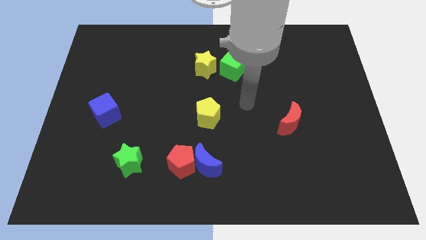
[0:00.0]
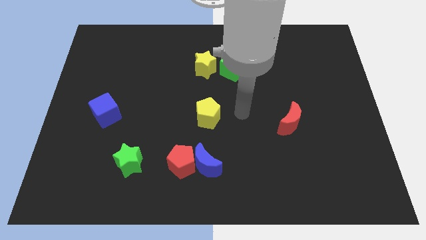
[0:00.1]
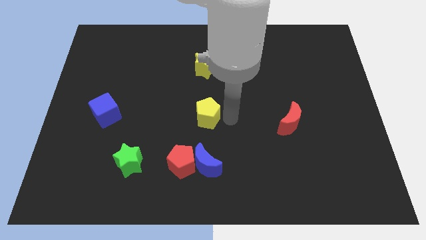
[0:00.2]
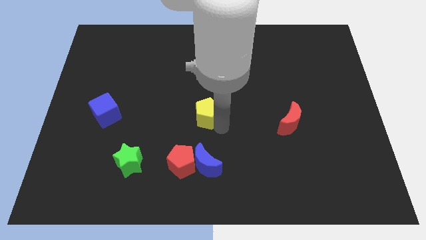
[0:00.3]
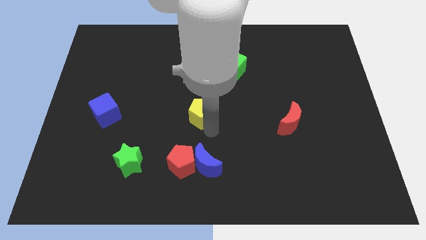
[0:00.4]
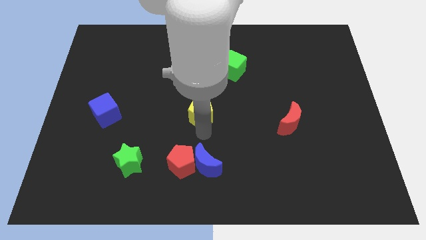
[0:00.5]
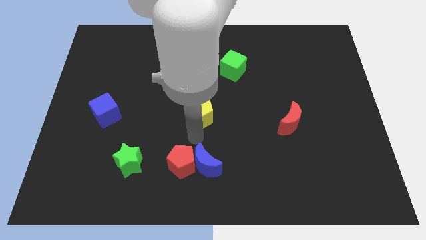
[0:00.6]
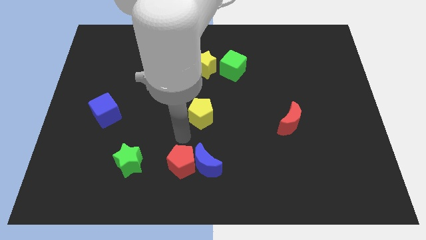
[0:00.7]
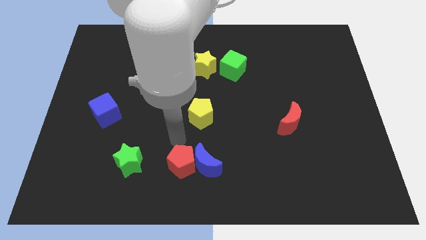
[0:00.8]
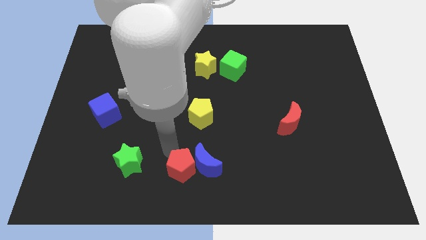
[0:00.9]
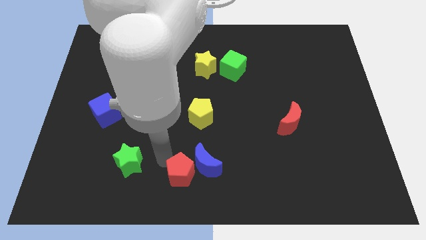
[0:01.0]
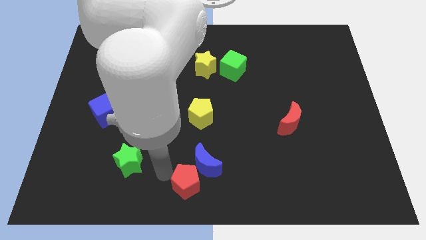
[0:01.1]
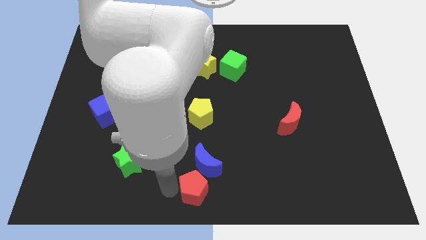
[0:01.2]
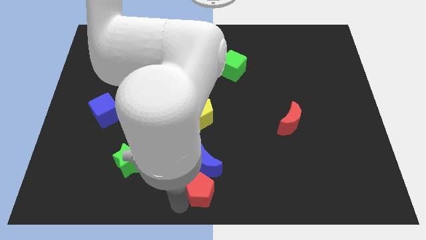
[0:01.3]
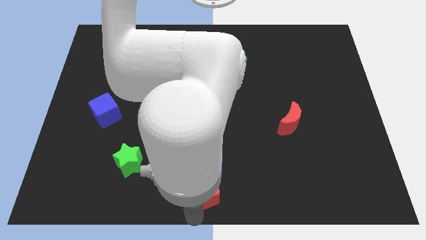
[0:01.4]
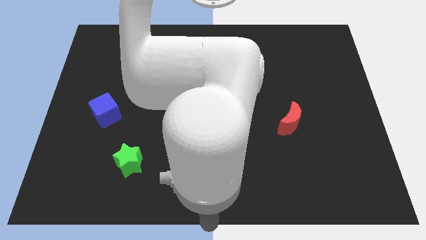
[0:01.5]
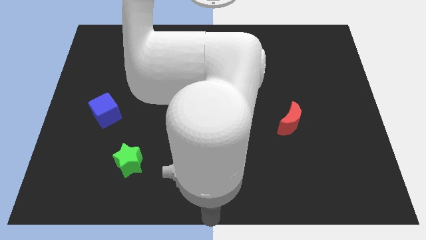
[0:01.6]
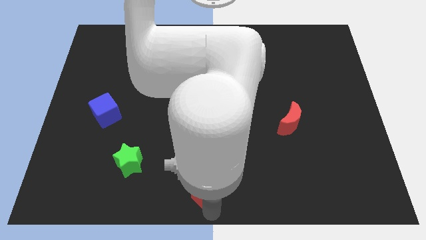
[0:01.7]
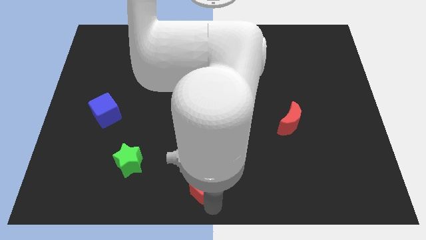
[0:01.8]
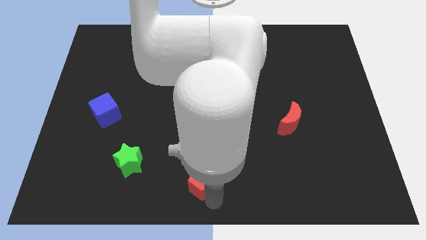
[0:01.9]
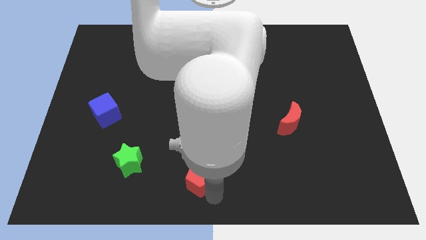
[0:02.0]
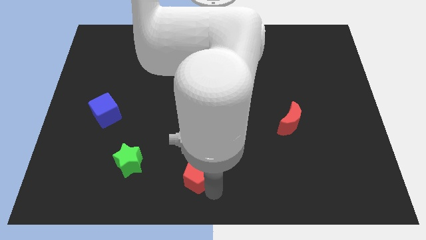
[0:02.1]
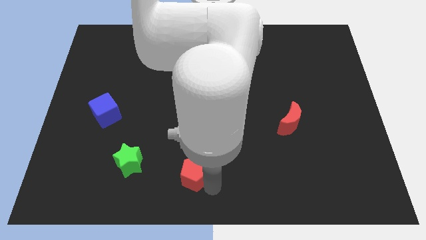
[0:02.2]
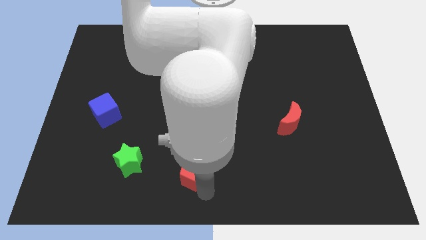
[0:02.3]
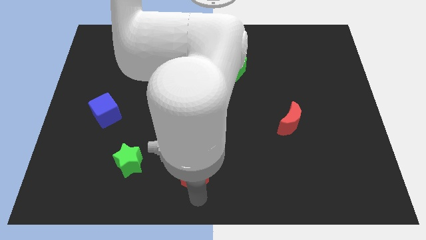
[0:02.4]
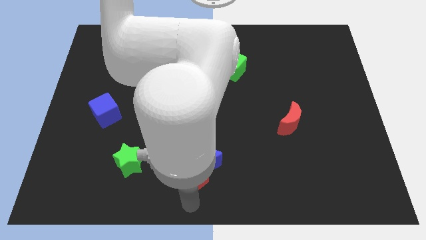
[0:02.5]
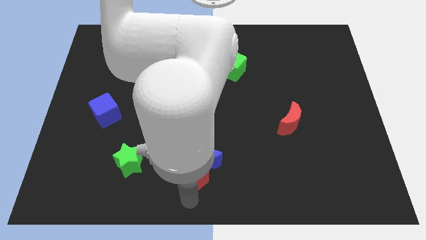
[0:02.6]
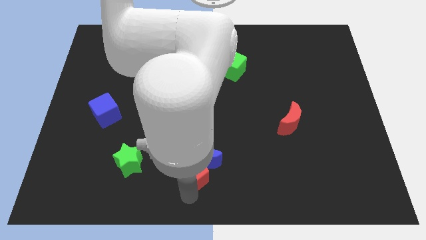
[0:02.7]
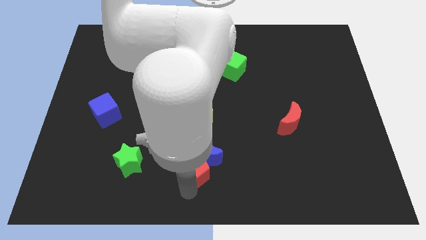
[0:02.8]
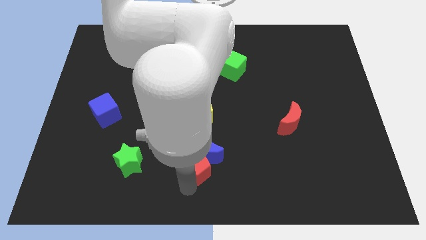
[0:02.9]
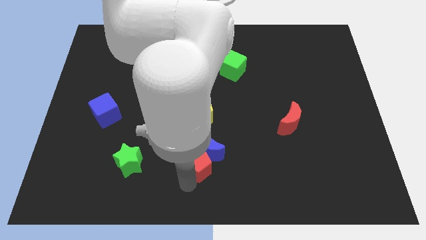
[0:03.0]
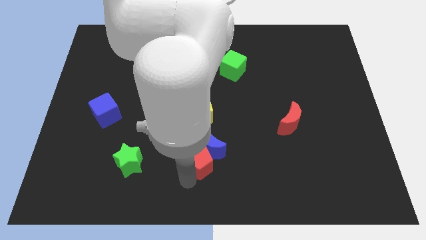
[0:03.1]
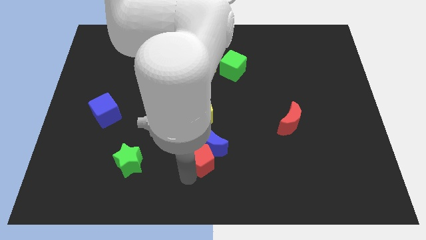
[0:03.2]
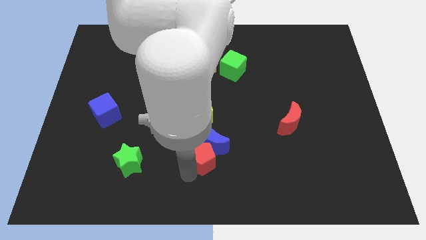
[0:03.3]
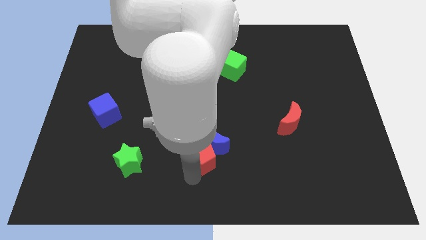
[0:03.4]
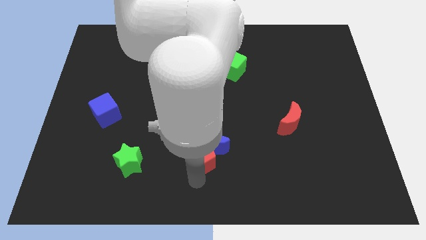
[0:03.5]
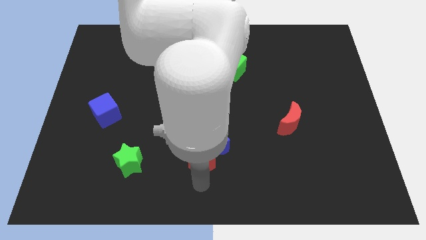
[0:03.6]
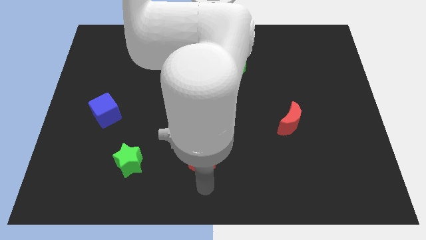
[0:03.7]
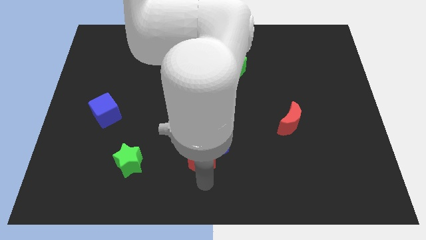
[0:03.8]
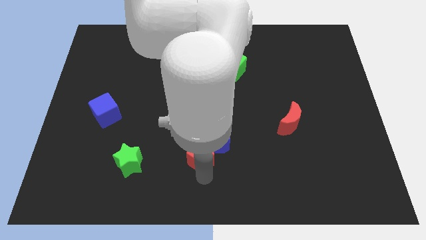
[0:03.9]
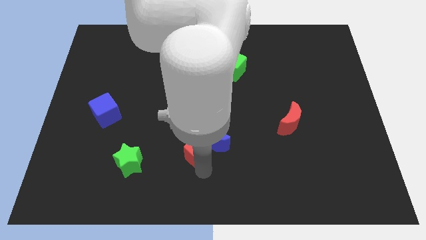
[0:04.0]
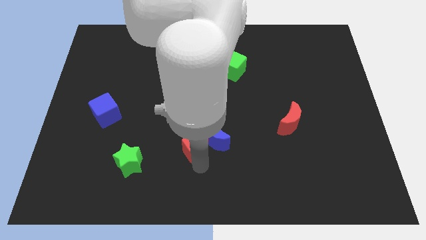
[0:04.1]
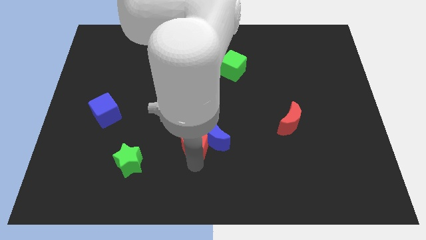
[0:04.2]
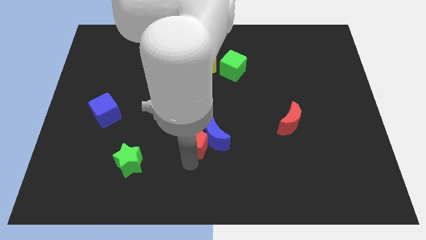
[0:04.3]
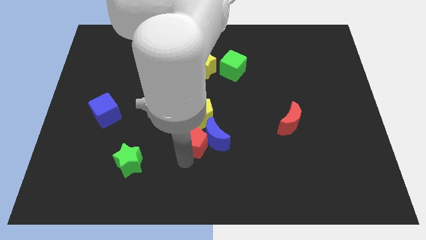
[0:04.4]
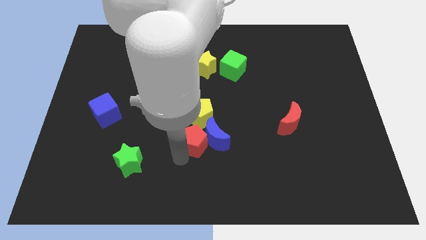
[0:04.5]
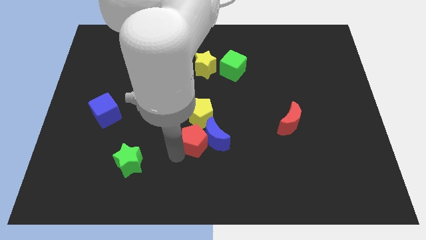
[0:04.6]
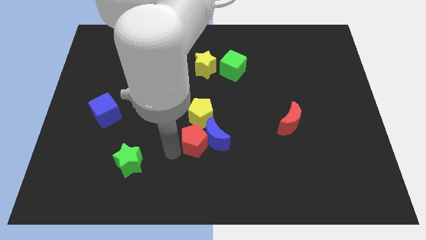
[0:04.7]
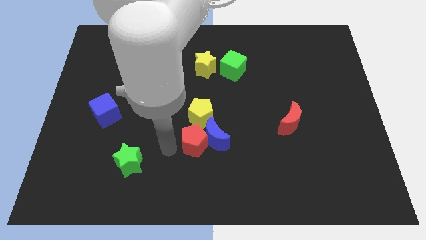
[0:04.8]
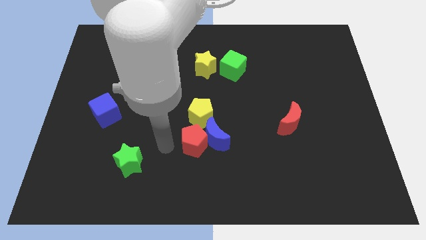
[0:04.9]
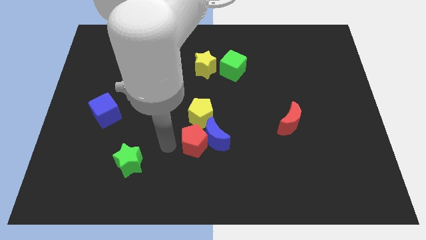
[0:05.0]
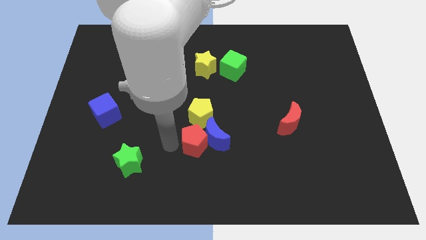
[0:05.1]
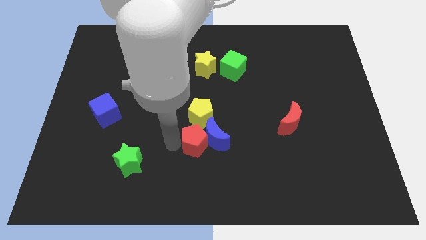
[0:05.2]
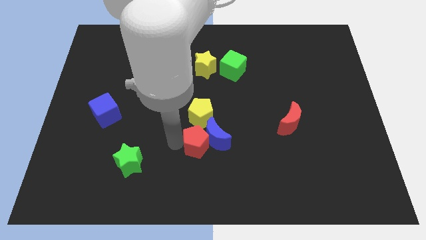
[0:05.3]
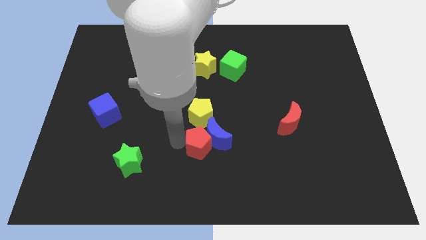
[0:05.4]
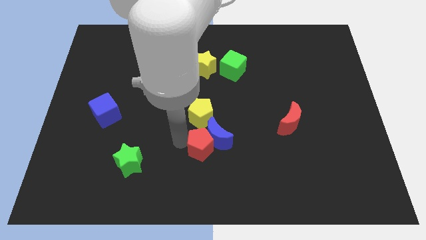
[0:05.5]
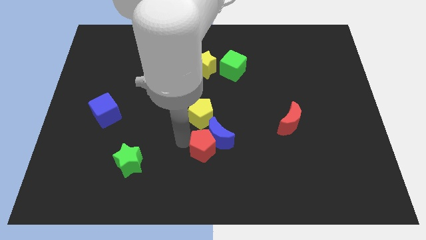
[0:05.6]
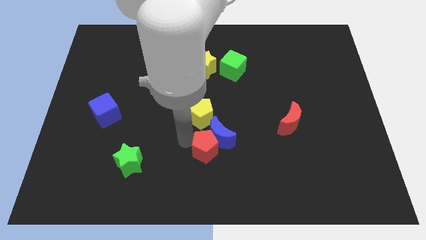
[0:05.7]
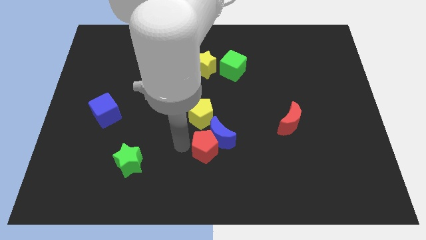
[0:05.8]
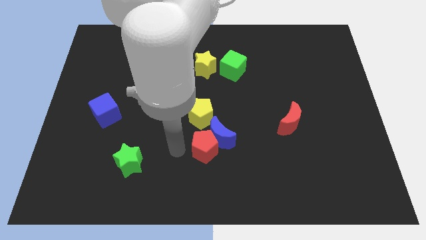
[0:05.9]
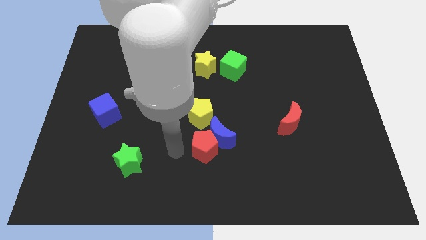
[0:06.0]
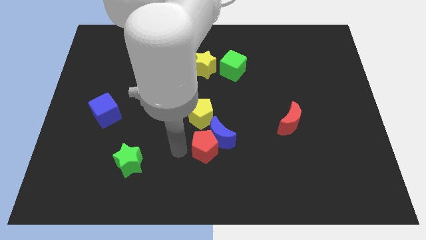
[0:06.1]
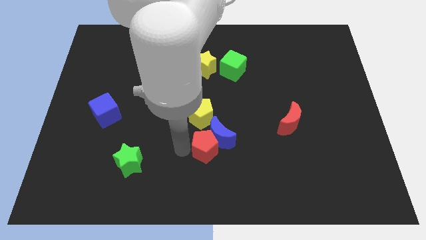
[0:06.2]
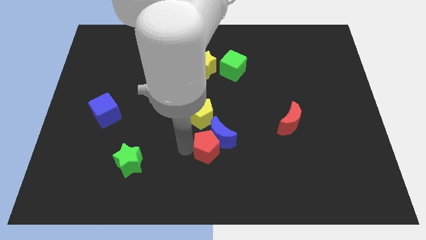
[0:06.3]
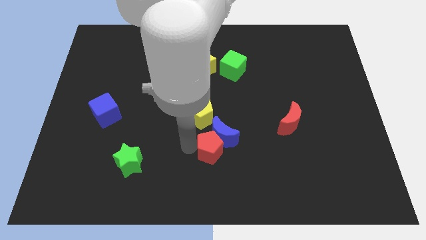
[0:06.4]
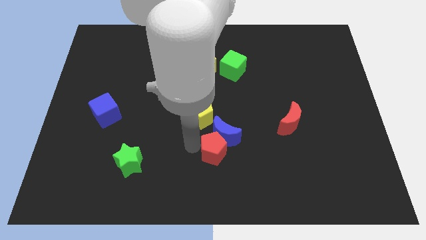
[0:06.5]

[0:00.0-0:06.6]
slightly move the red pentagon up and right

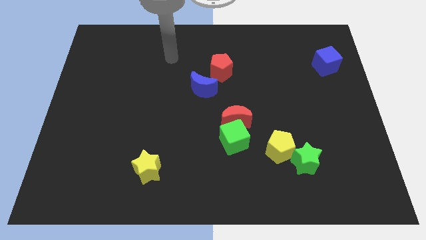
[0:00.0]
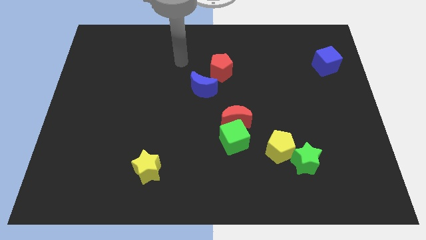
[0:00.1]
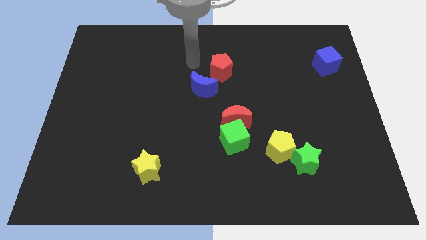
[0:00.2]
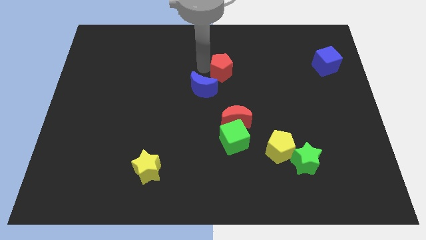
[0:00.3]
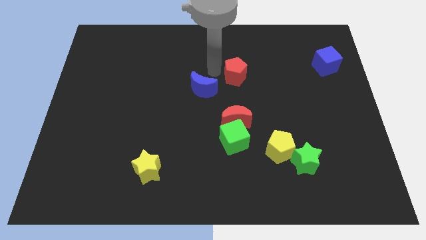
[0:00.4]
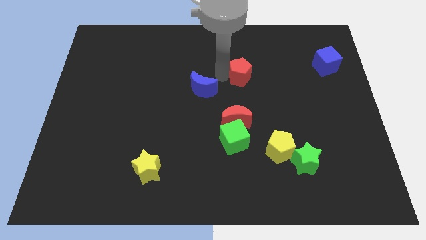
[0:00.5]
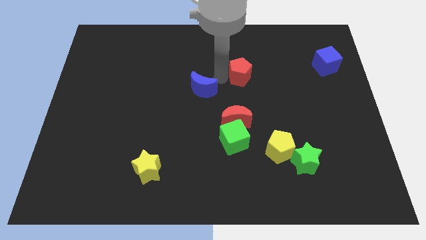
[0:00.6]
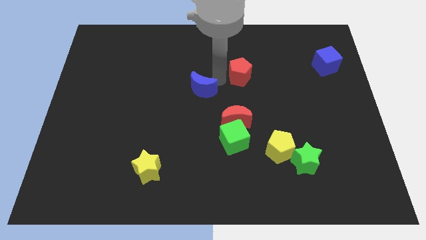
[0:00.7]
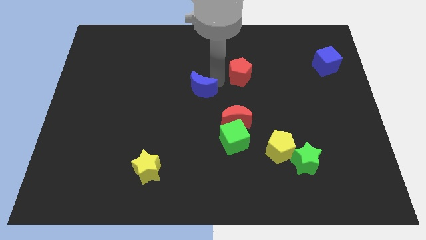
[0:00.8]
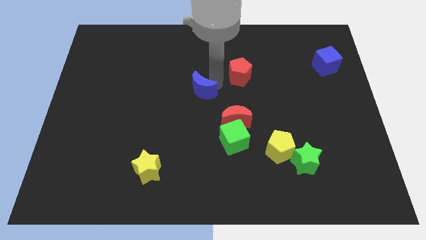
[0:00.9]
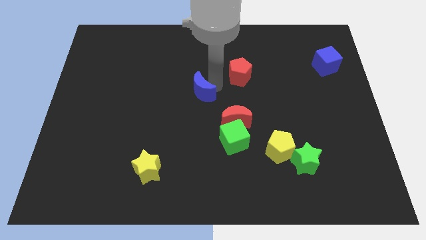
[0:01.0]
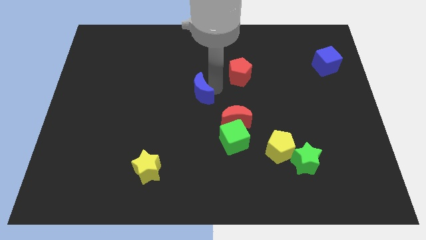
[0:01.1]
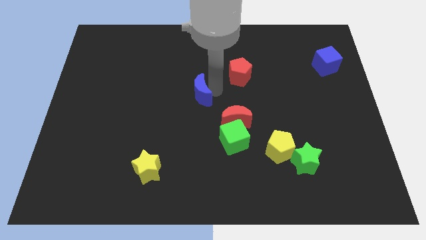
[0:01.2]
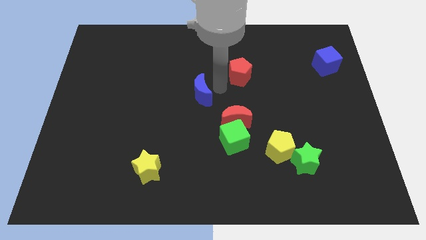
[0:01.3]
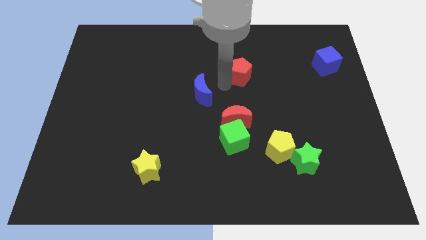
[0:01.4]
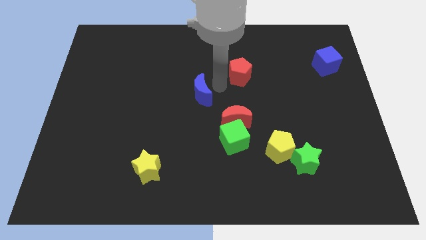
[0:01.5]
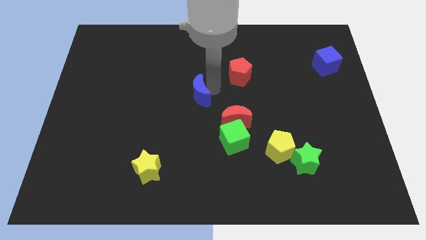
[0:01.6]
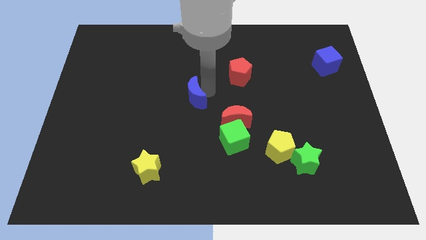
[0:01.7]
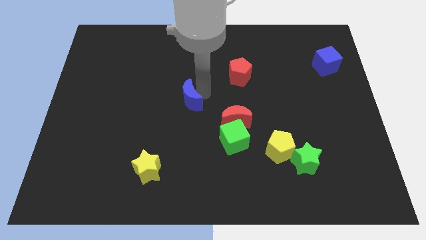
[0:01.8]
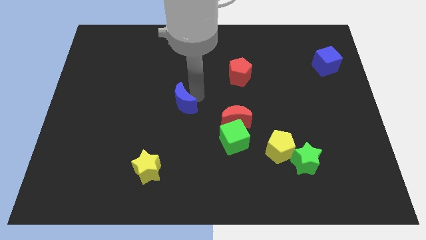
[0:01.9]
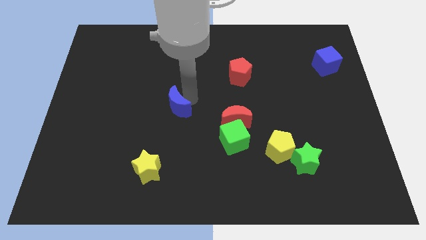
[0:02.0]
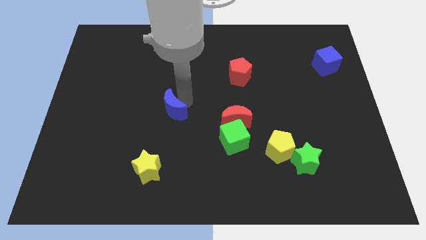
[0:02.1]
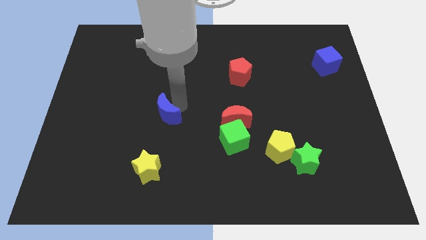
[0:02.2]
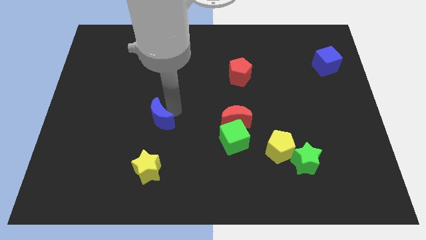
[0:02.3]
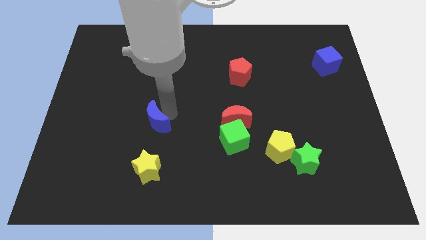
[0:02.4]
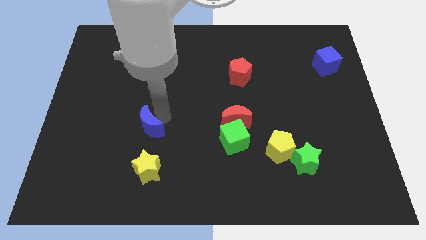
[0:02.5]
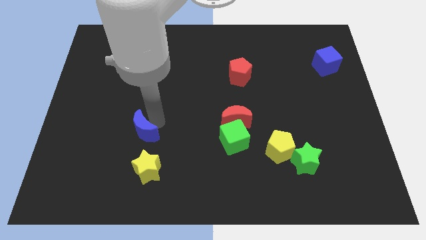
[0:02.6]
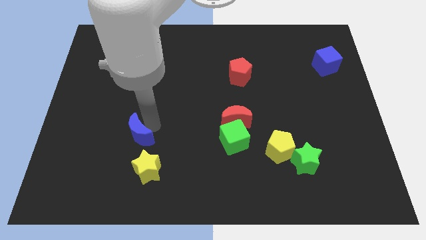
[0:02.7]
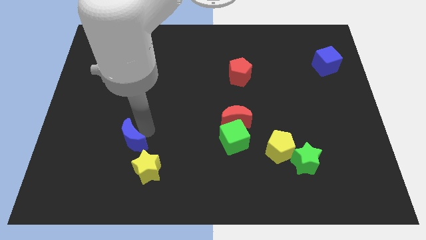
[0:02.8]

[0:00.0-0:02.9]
push the blue moon downwards and to the left diagonally
